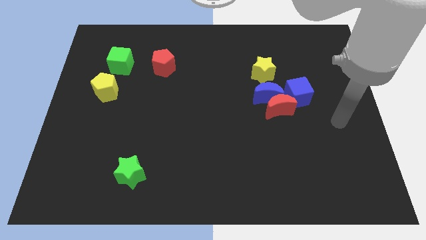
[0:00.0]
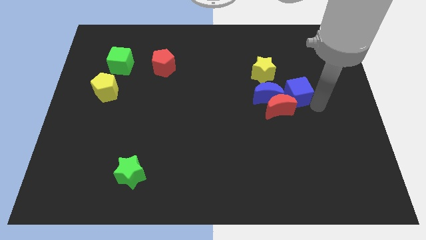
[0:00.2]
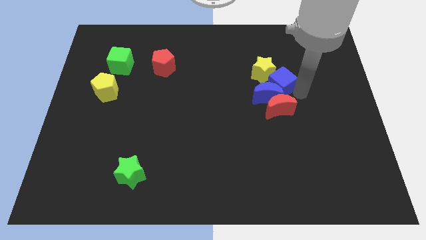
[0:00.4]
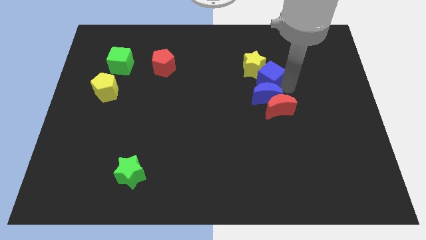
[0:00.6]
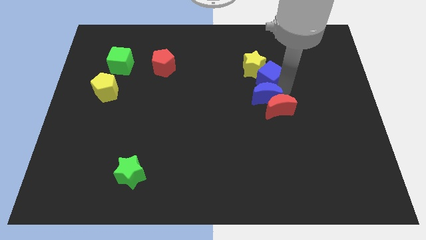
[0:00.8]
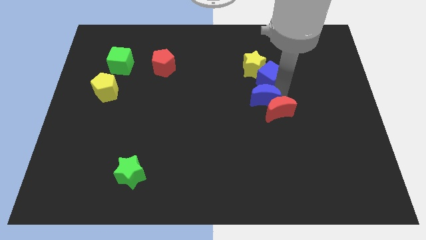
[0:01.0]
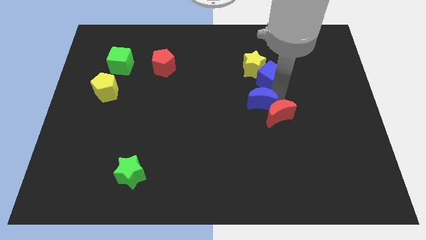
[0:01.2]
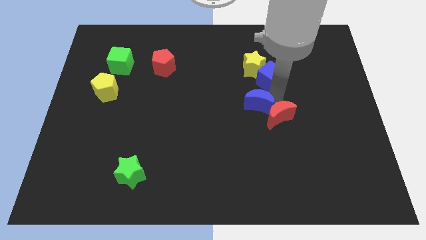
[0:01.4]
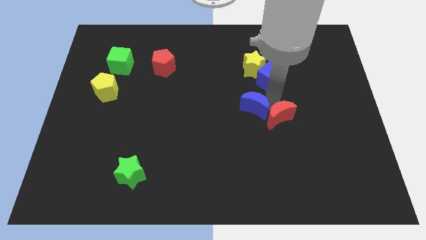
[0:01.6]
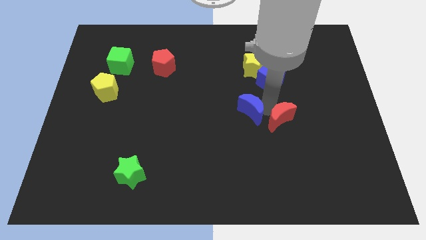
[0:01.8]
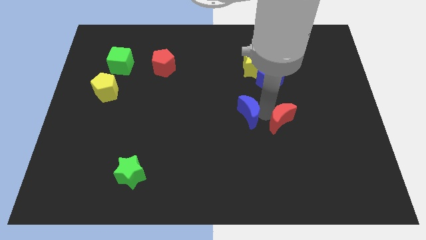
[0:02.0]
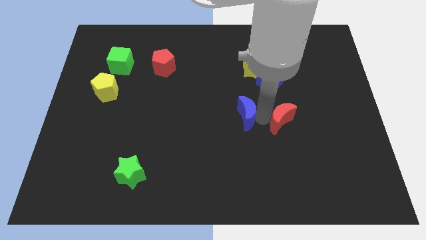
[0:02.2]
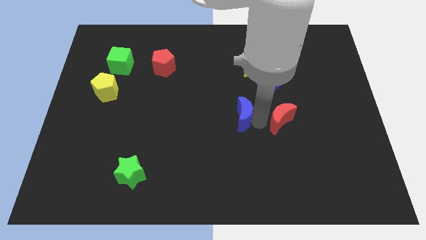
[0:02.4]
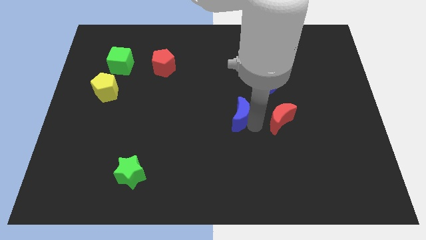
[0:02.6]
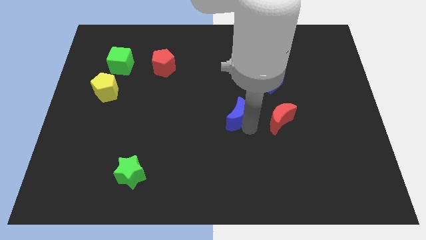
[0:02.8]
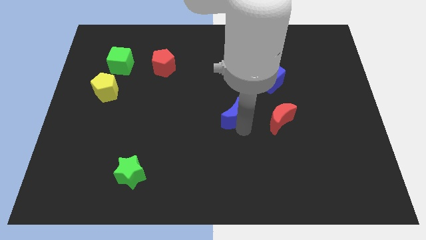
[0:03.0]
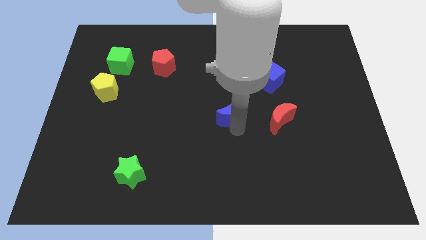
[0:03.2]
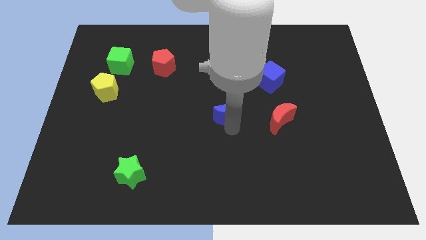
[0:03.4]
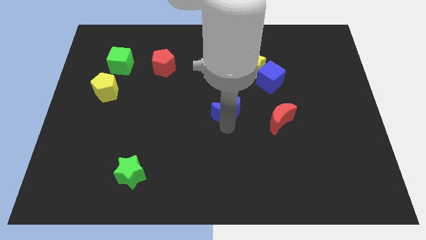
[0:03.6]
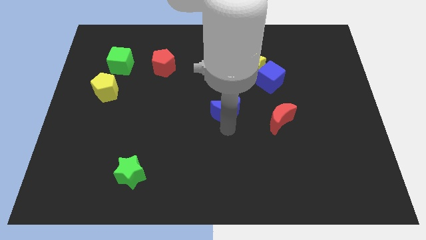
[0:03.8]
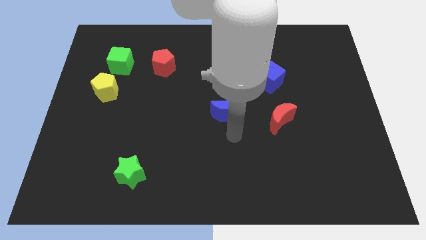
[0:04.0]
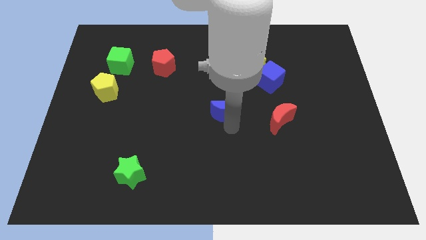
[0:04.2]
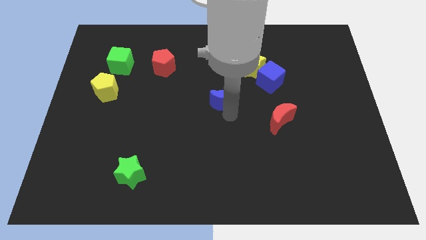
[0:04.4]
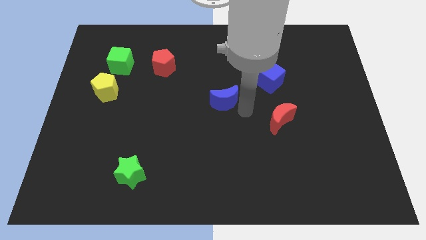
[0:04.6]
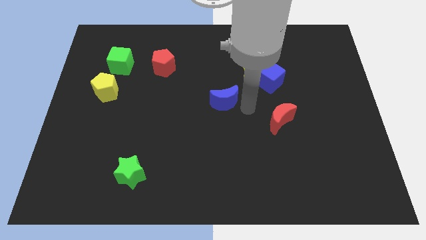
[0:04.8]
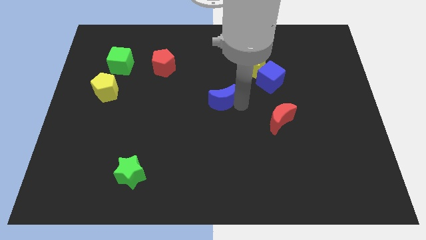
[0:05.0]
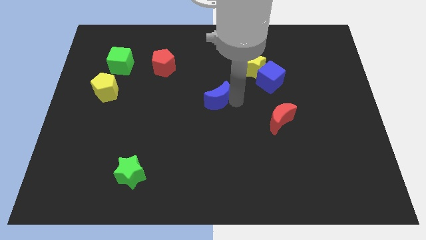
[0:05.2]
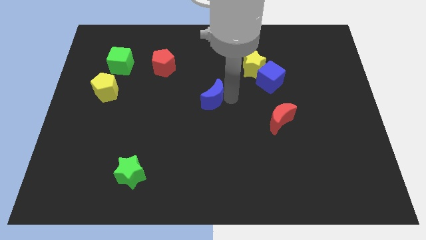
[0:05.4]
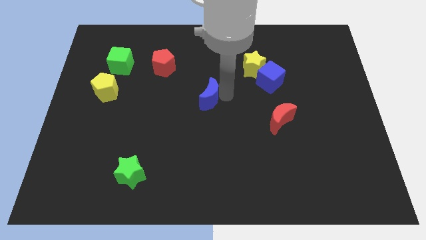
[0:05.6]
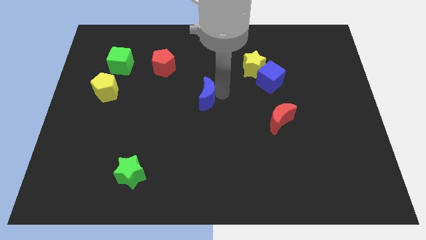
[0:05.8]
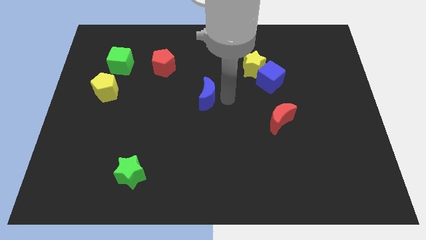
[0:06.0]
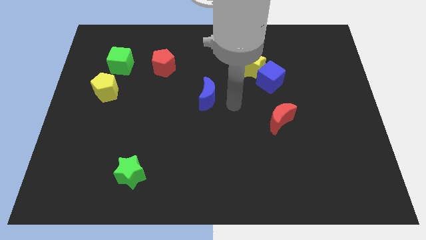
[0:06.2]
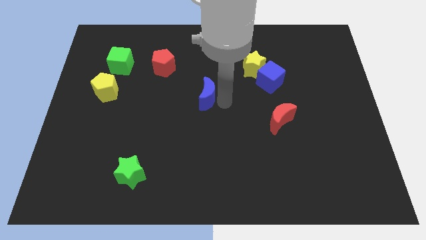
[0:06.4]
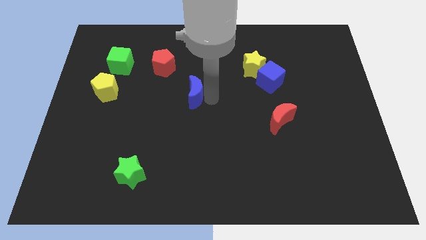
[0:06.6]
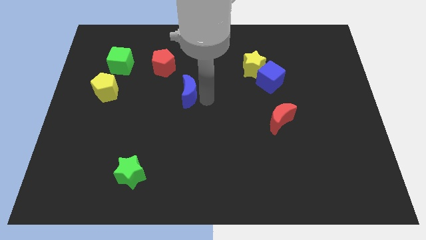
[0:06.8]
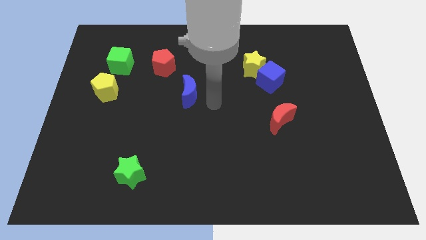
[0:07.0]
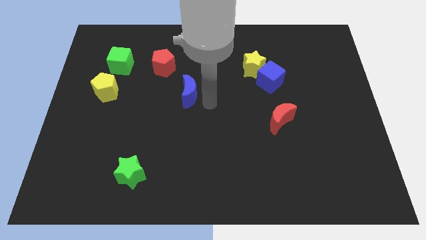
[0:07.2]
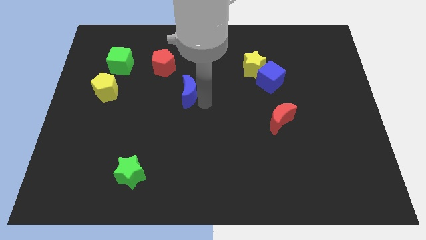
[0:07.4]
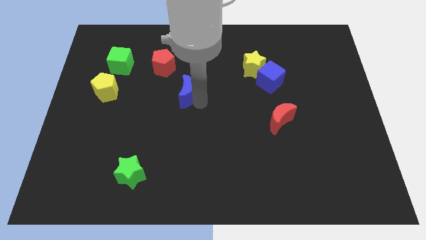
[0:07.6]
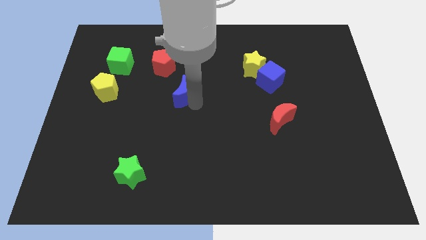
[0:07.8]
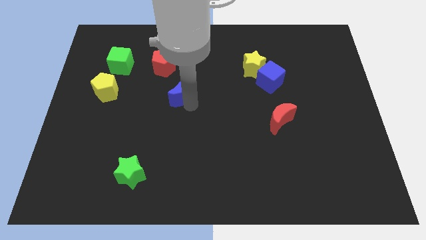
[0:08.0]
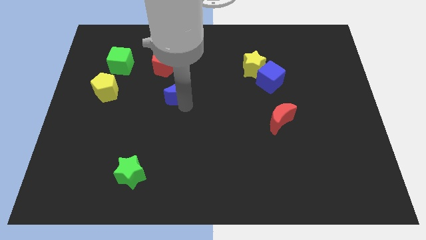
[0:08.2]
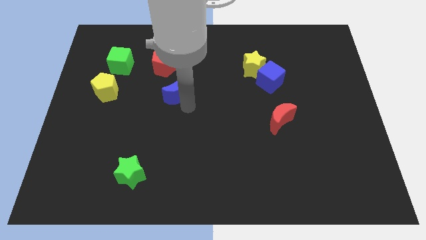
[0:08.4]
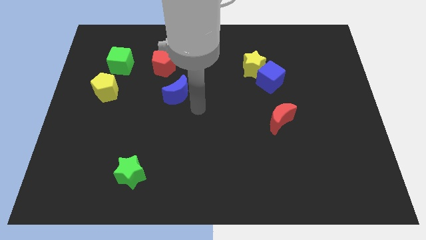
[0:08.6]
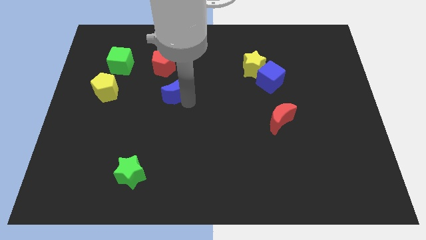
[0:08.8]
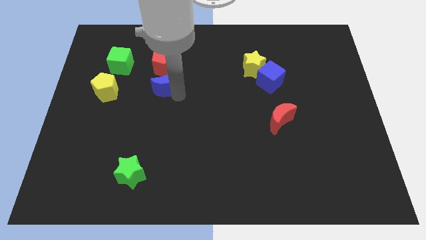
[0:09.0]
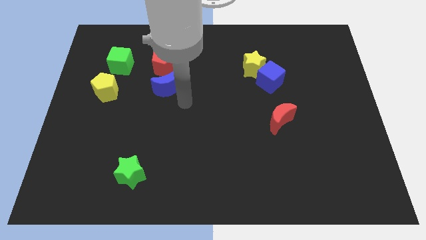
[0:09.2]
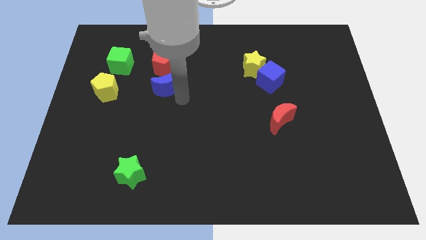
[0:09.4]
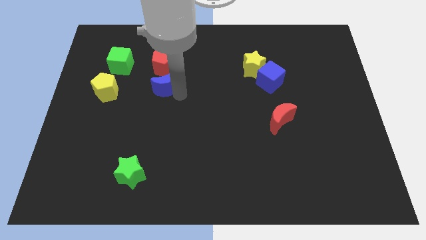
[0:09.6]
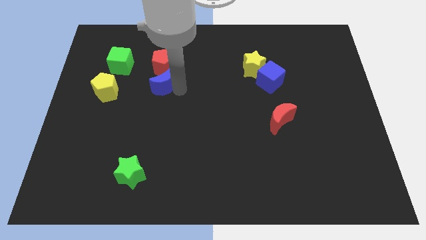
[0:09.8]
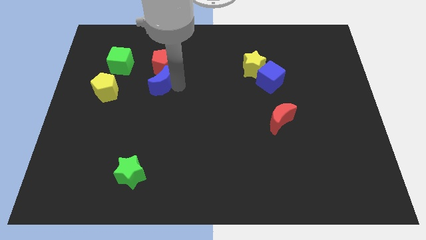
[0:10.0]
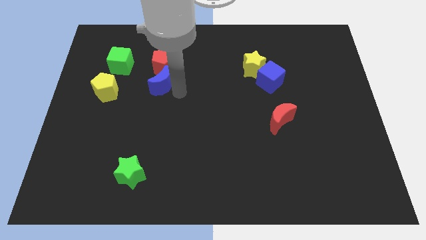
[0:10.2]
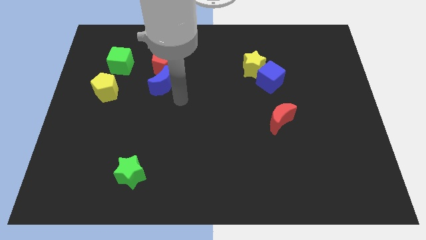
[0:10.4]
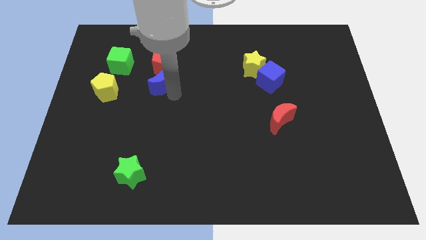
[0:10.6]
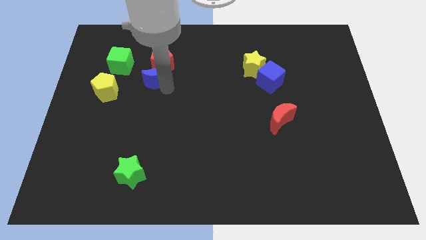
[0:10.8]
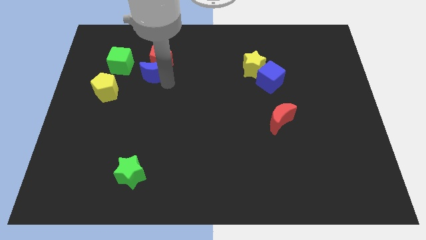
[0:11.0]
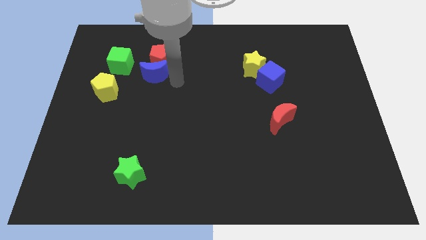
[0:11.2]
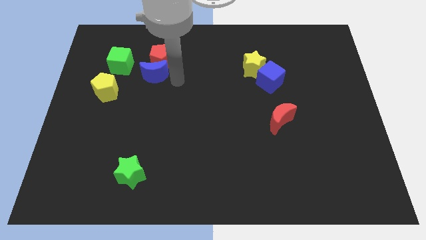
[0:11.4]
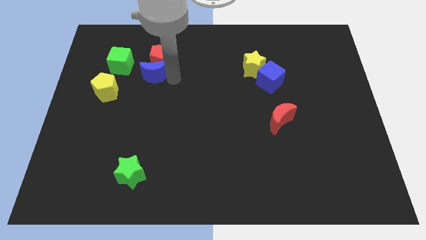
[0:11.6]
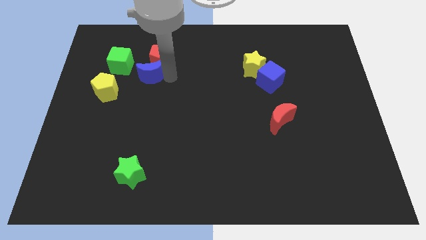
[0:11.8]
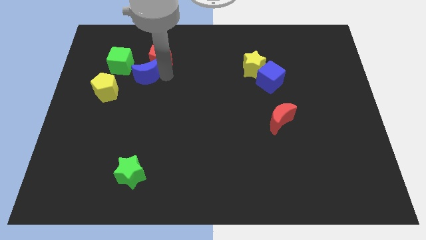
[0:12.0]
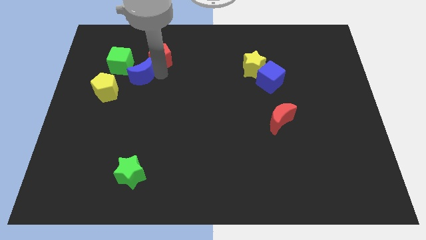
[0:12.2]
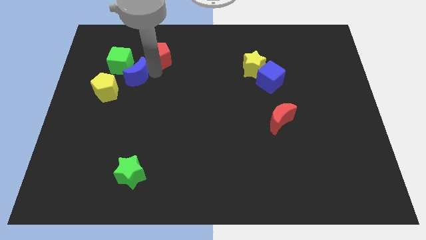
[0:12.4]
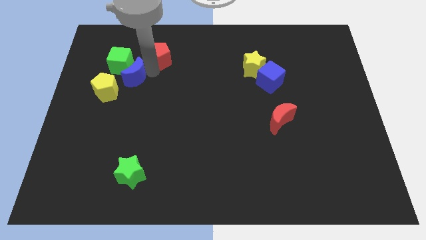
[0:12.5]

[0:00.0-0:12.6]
push the blue moon next to the green cube

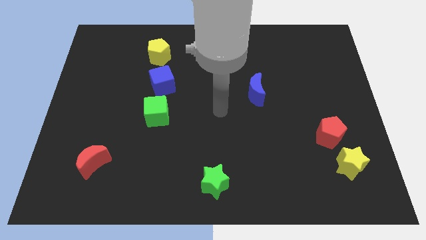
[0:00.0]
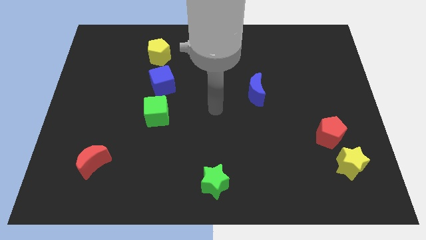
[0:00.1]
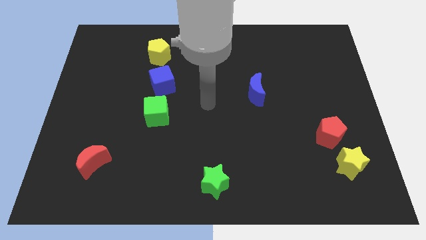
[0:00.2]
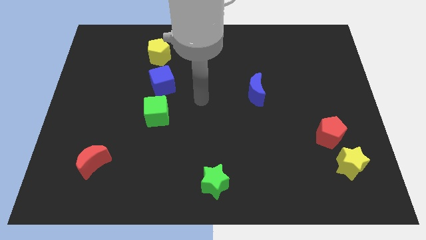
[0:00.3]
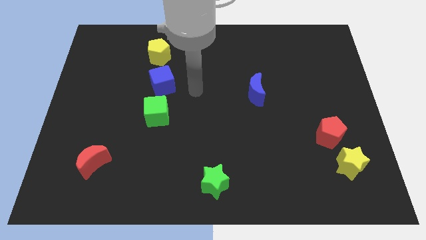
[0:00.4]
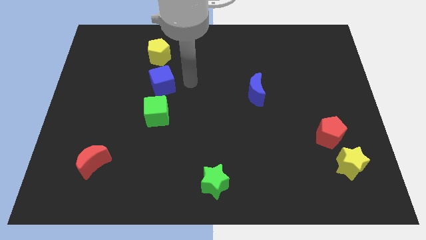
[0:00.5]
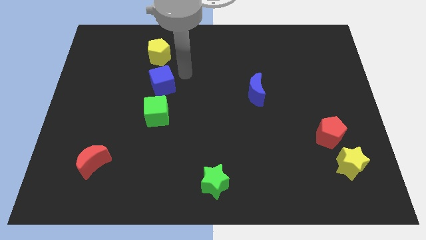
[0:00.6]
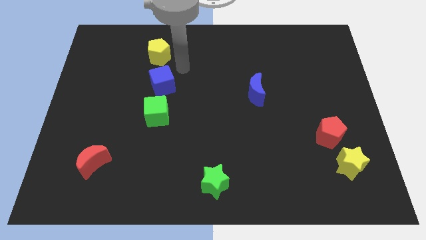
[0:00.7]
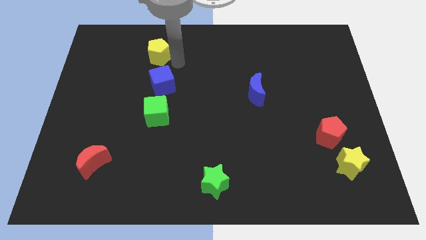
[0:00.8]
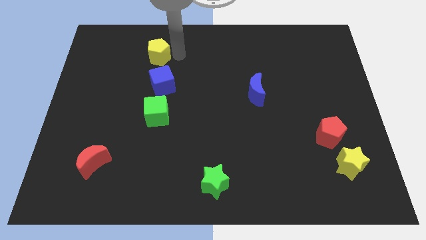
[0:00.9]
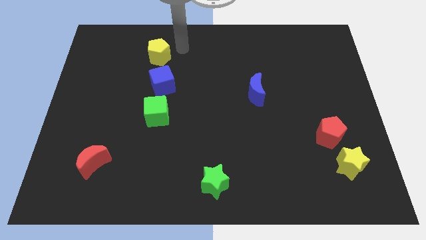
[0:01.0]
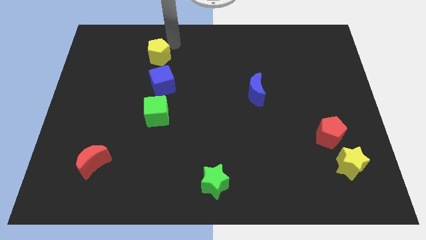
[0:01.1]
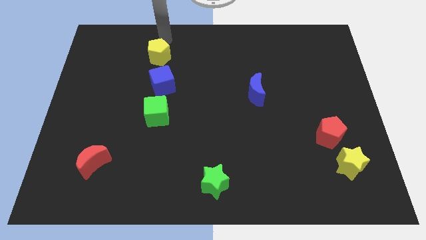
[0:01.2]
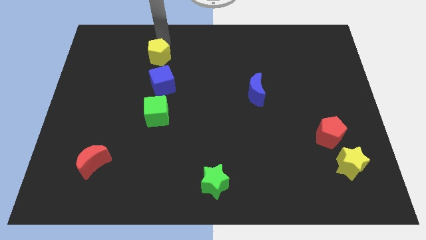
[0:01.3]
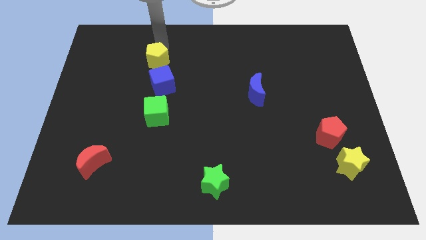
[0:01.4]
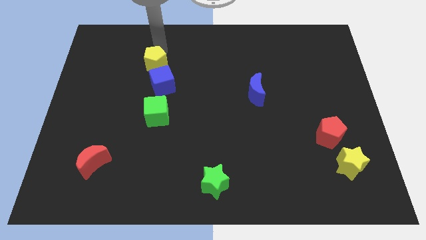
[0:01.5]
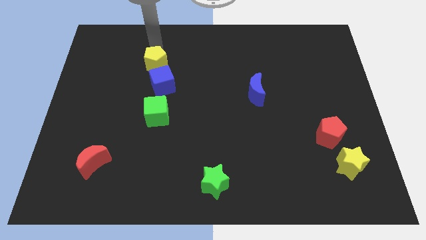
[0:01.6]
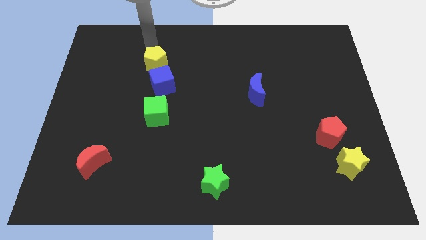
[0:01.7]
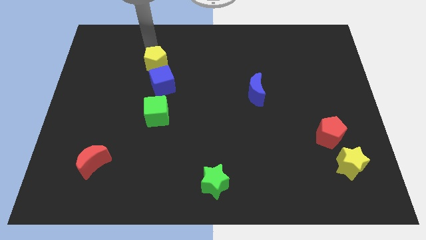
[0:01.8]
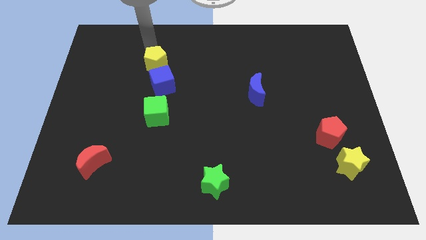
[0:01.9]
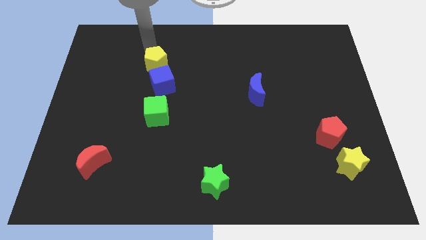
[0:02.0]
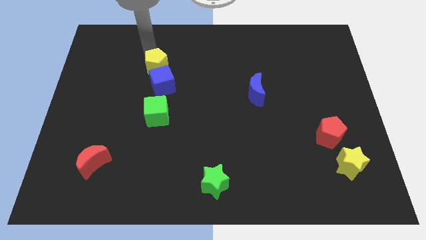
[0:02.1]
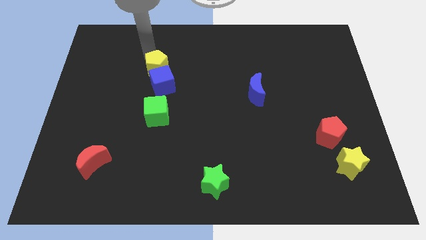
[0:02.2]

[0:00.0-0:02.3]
push the yellow pentagon next to the blue cube
